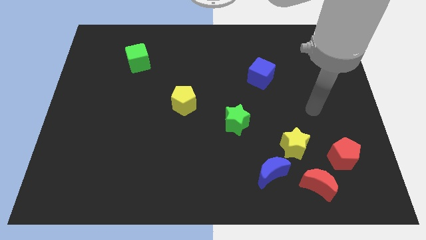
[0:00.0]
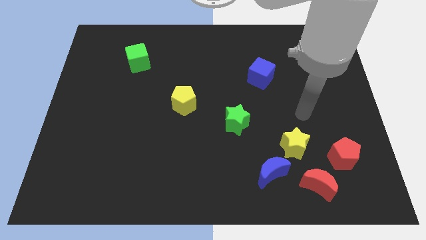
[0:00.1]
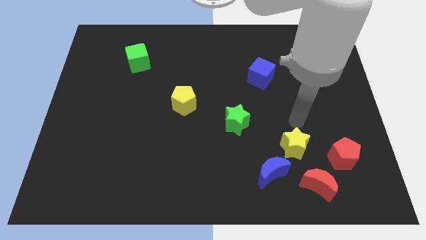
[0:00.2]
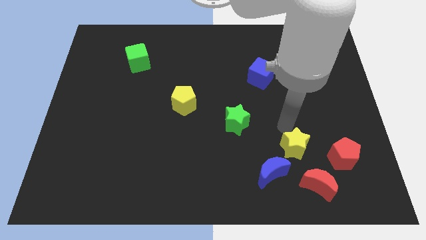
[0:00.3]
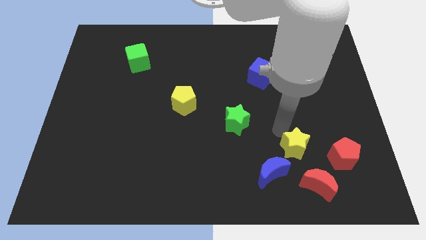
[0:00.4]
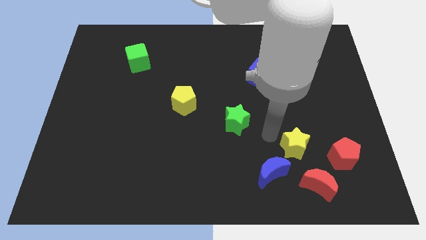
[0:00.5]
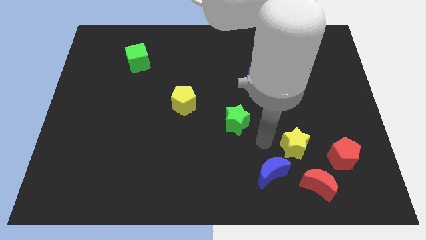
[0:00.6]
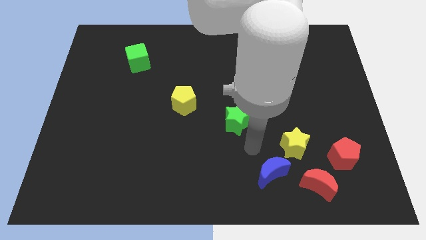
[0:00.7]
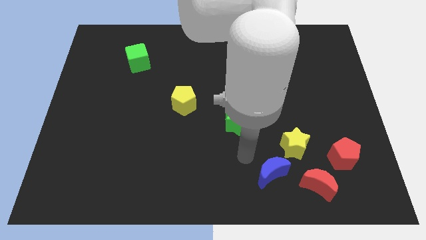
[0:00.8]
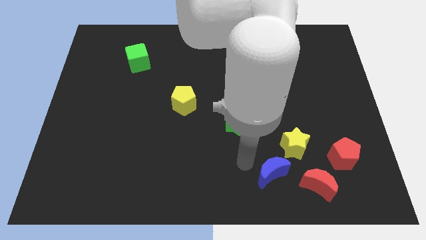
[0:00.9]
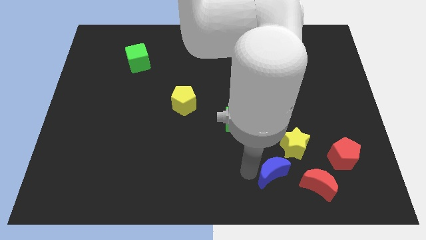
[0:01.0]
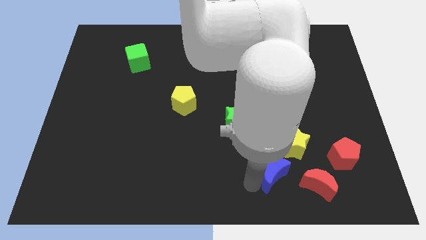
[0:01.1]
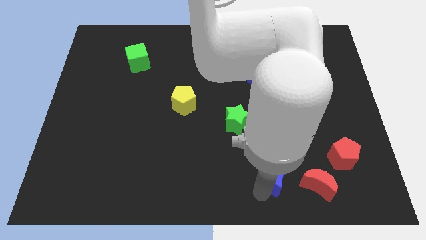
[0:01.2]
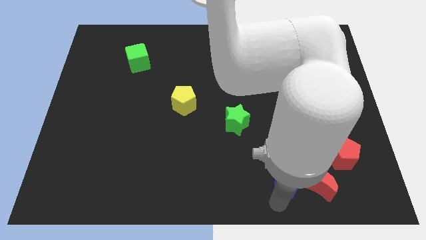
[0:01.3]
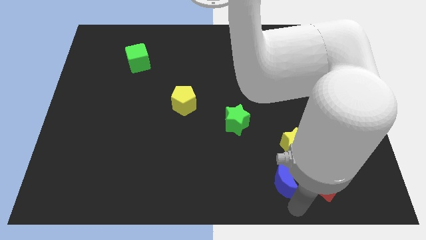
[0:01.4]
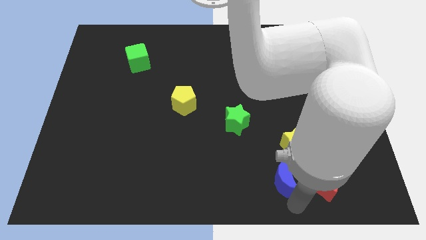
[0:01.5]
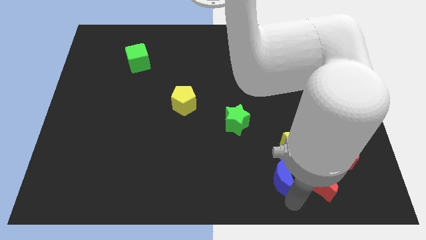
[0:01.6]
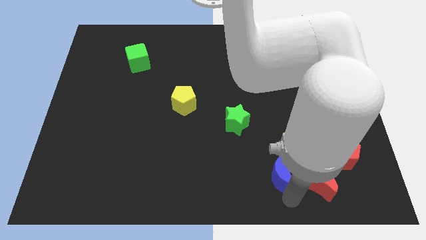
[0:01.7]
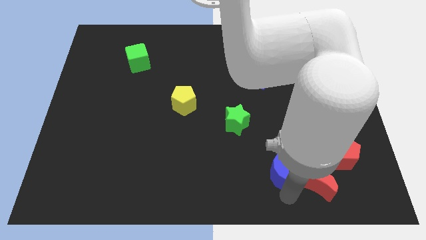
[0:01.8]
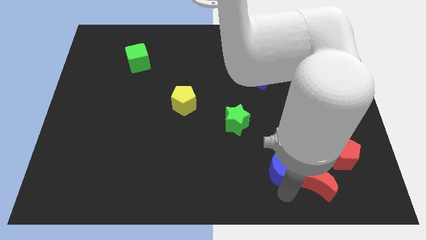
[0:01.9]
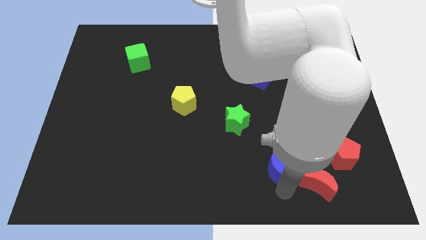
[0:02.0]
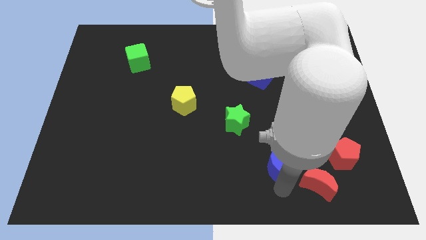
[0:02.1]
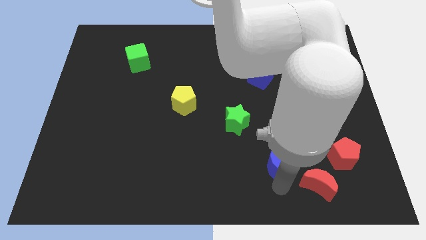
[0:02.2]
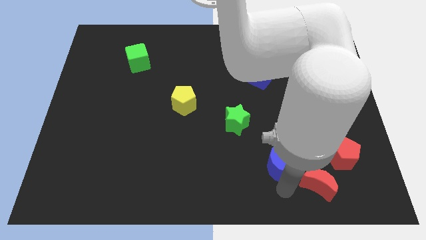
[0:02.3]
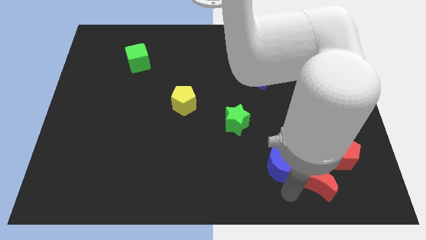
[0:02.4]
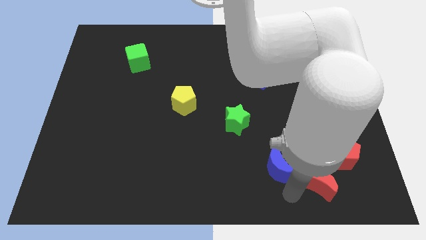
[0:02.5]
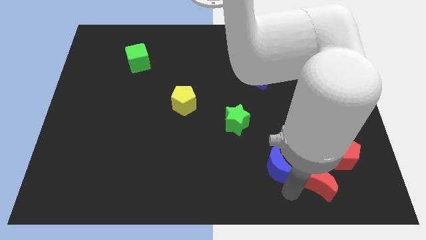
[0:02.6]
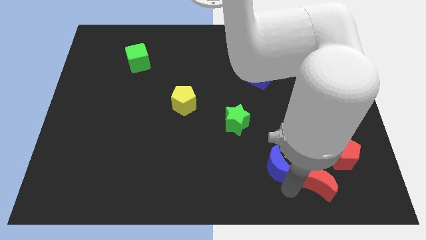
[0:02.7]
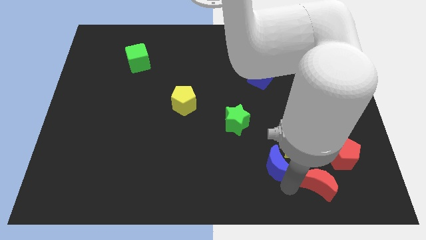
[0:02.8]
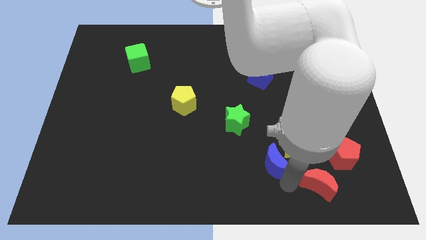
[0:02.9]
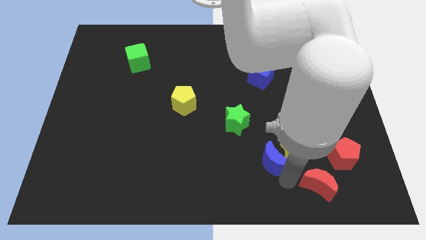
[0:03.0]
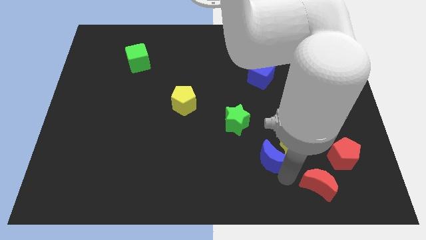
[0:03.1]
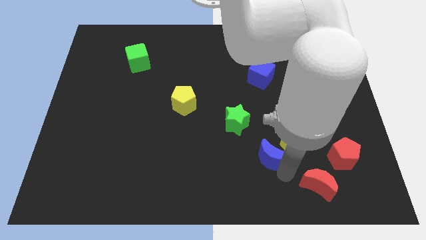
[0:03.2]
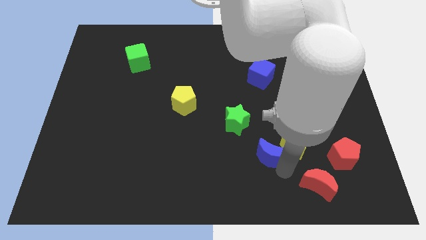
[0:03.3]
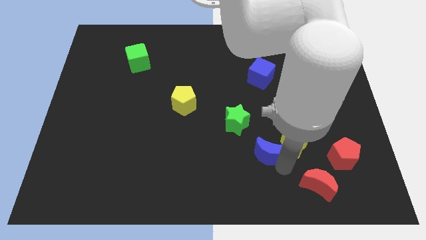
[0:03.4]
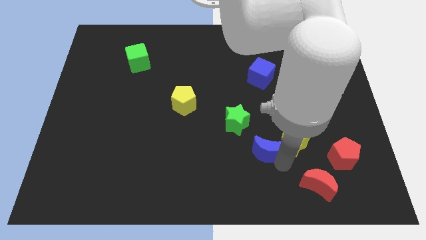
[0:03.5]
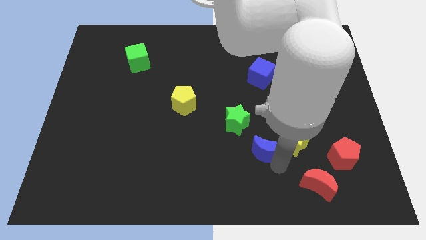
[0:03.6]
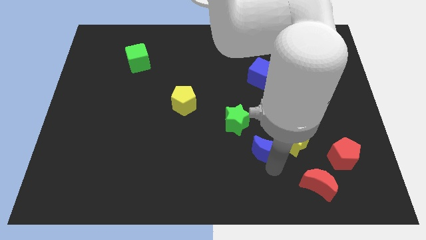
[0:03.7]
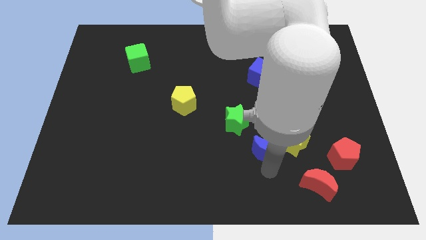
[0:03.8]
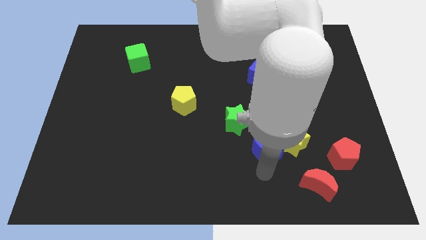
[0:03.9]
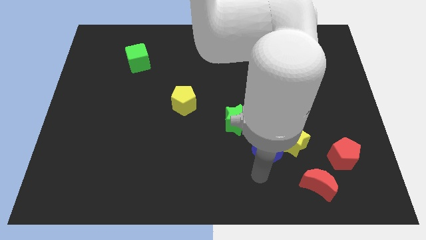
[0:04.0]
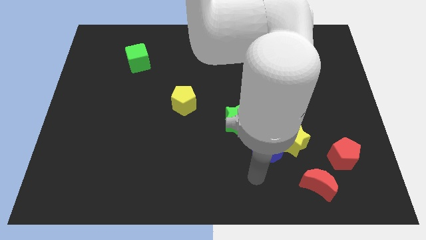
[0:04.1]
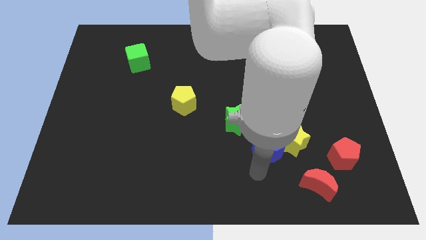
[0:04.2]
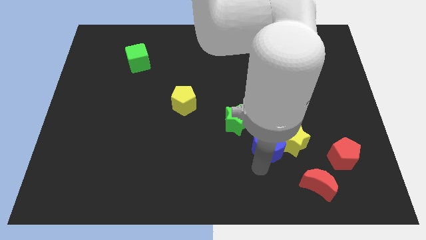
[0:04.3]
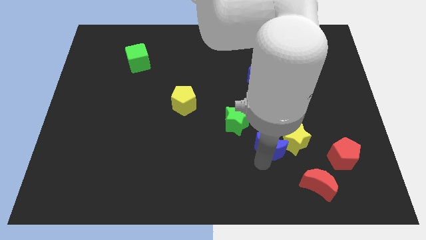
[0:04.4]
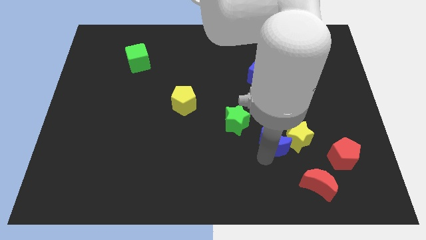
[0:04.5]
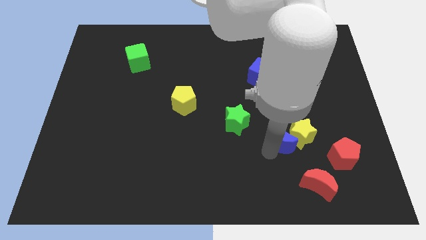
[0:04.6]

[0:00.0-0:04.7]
move the blue moon to the right of the green star

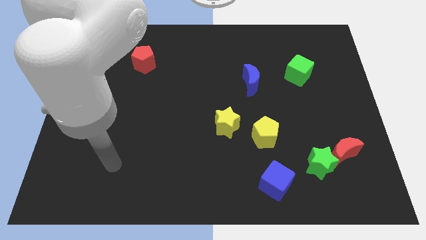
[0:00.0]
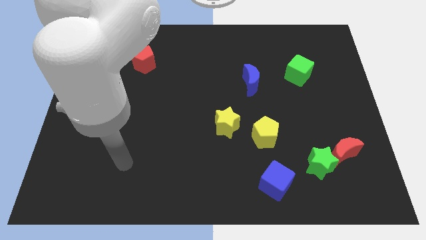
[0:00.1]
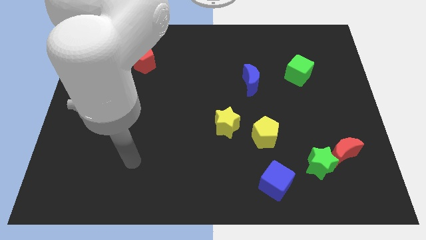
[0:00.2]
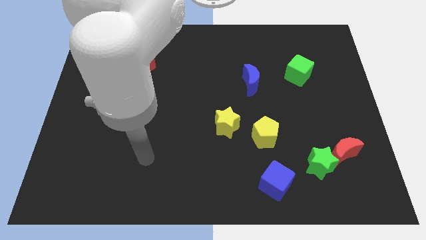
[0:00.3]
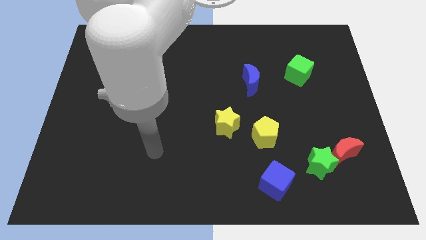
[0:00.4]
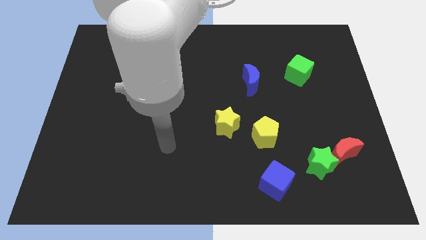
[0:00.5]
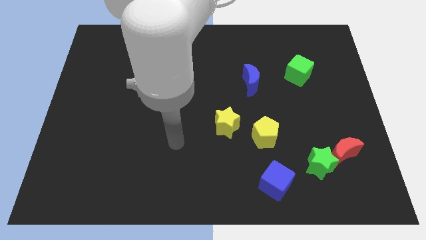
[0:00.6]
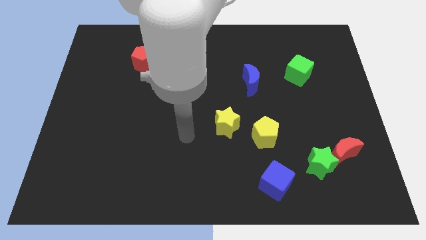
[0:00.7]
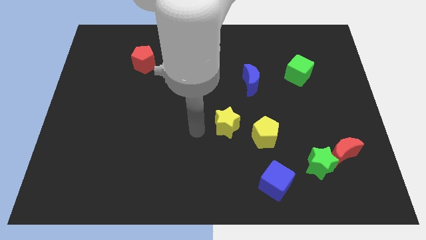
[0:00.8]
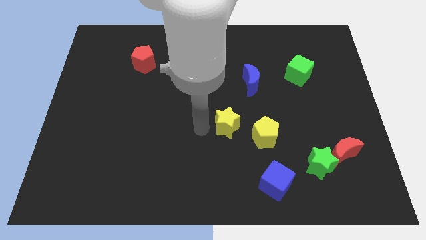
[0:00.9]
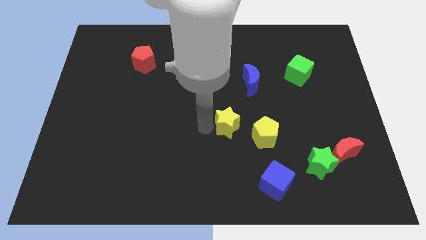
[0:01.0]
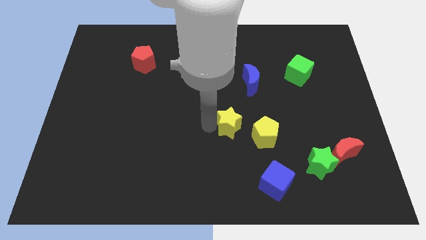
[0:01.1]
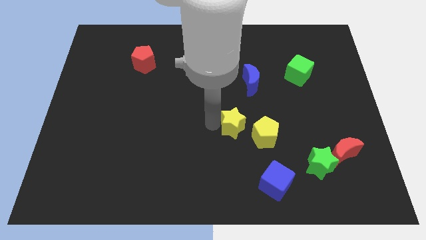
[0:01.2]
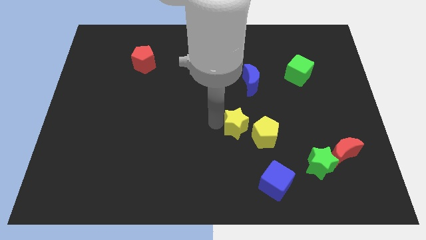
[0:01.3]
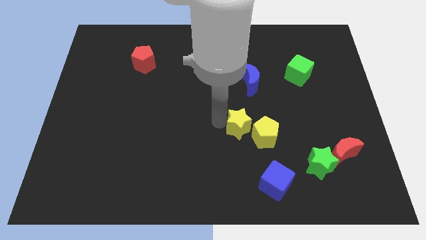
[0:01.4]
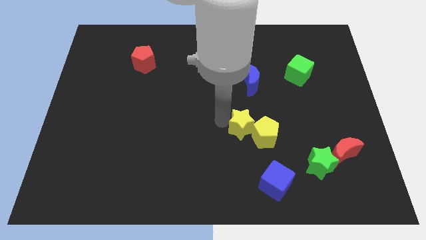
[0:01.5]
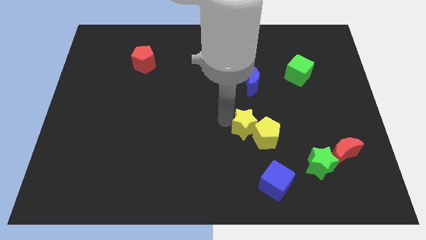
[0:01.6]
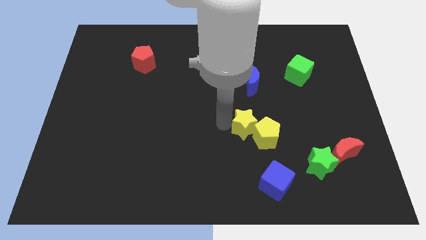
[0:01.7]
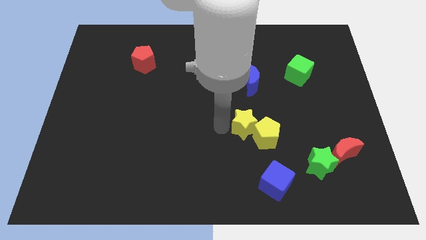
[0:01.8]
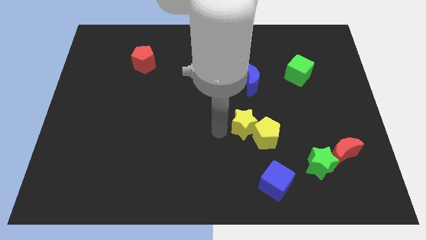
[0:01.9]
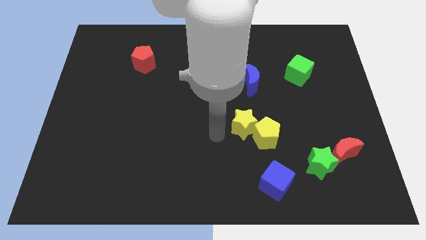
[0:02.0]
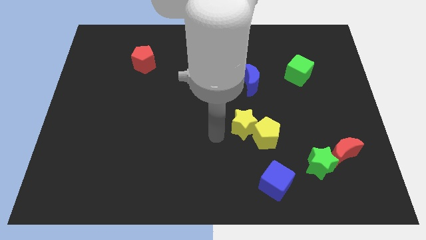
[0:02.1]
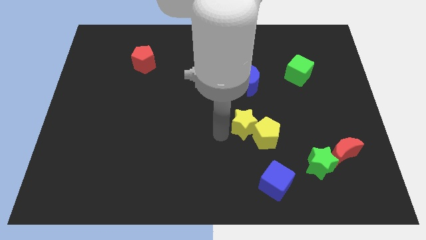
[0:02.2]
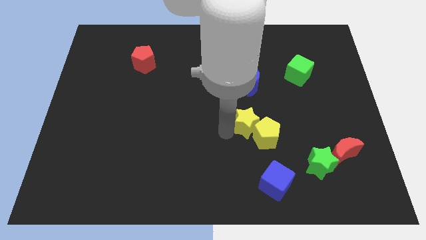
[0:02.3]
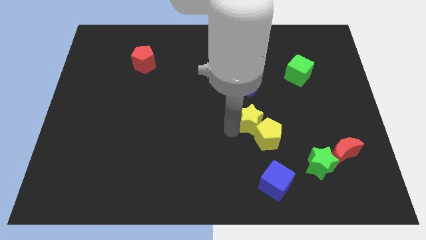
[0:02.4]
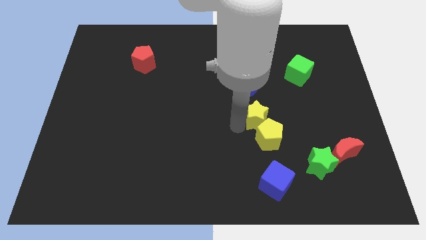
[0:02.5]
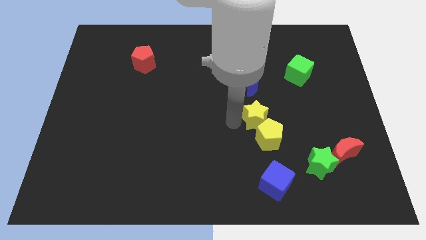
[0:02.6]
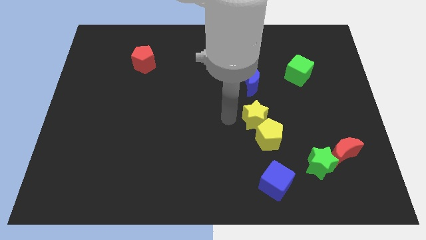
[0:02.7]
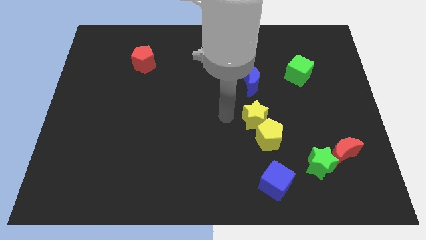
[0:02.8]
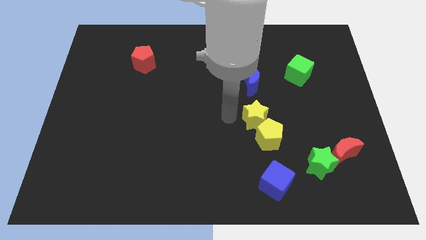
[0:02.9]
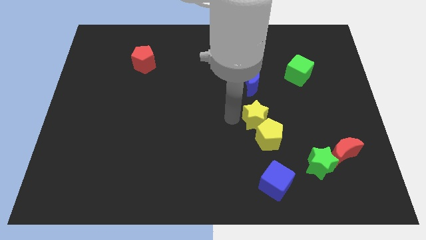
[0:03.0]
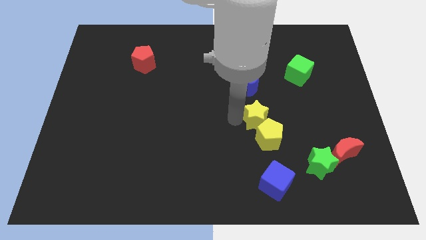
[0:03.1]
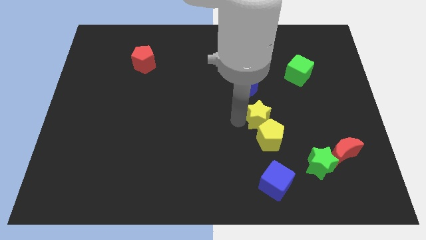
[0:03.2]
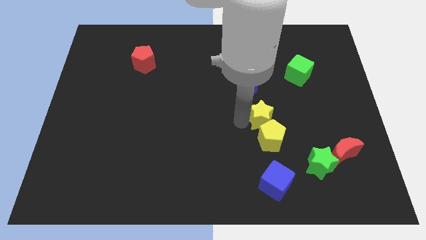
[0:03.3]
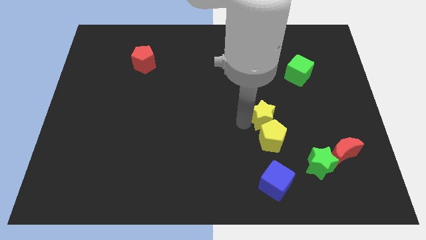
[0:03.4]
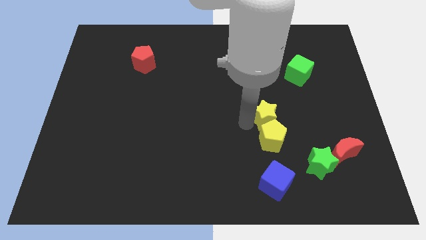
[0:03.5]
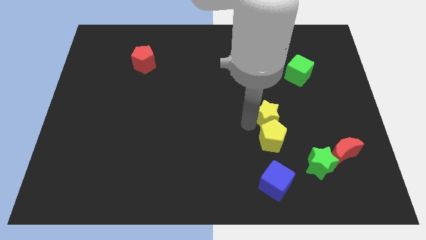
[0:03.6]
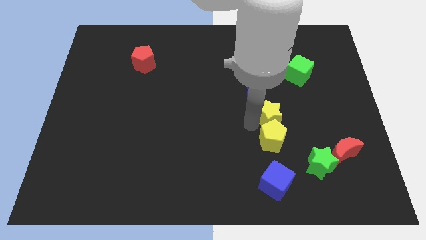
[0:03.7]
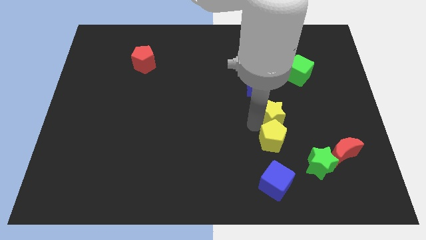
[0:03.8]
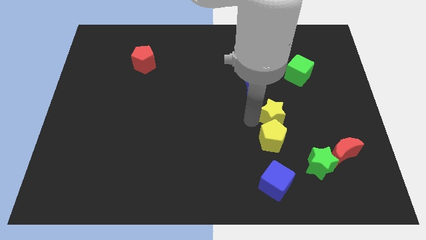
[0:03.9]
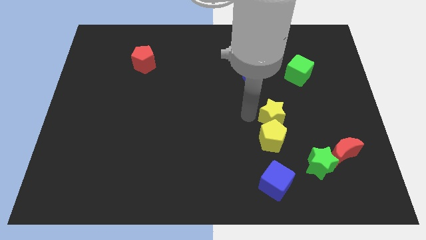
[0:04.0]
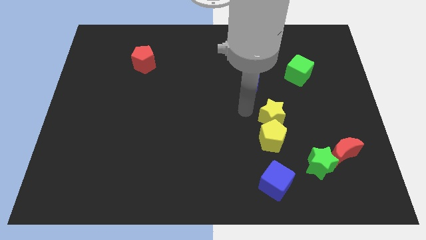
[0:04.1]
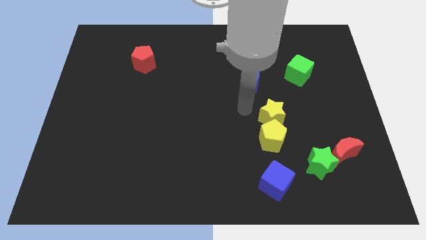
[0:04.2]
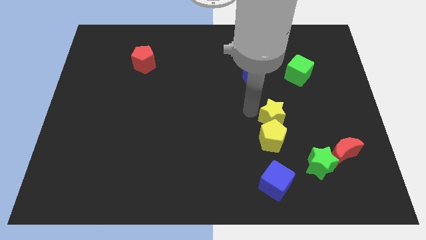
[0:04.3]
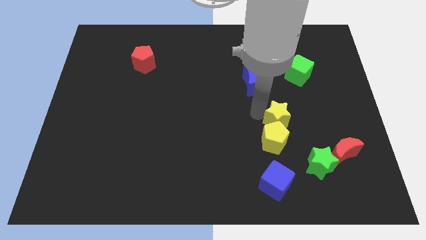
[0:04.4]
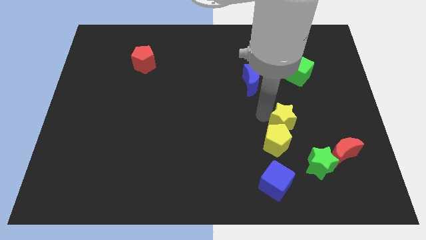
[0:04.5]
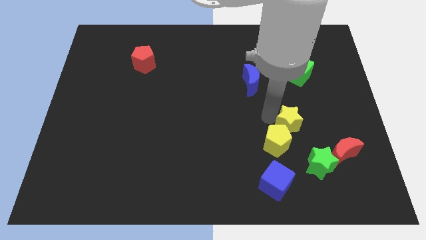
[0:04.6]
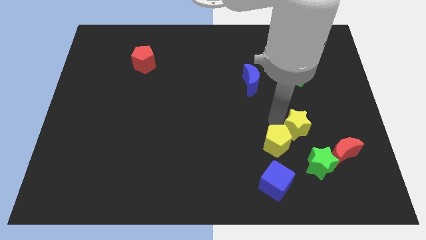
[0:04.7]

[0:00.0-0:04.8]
move the yellow star to the top of the green star
